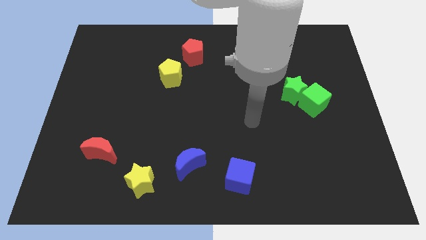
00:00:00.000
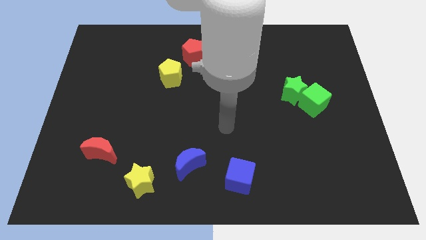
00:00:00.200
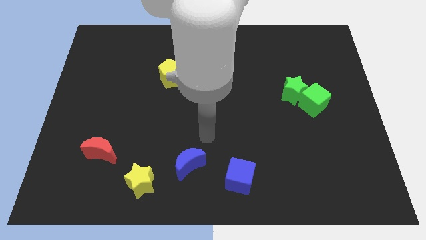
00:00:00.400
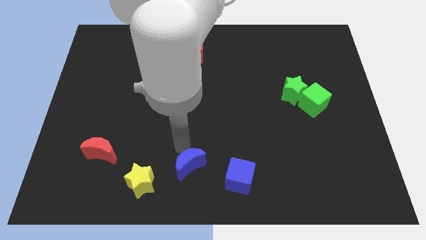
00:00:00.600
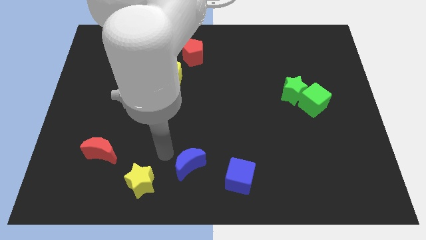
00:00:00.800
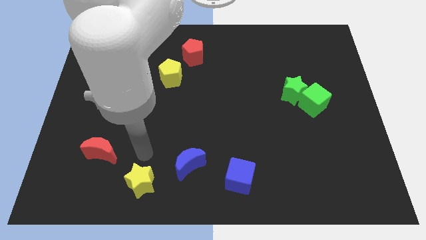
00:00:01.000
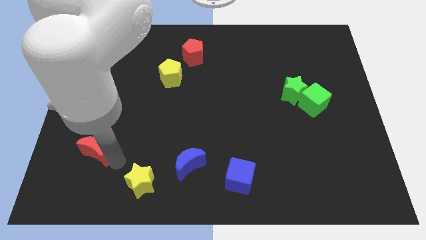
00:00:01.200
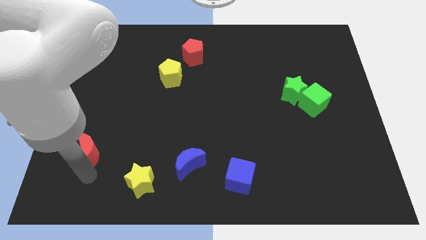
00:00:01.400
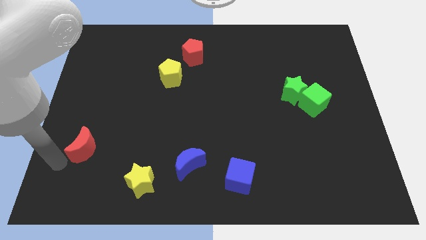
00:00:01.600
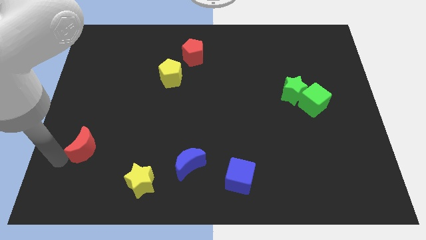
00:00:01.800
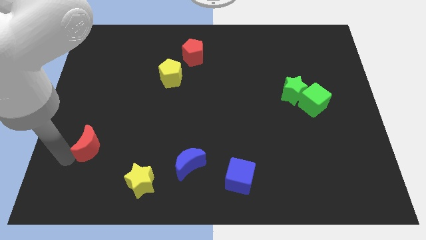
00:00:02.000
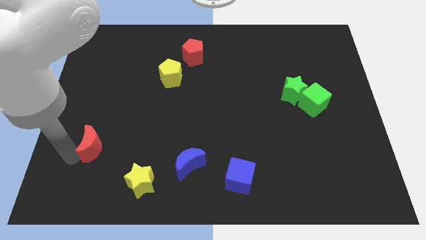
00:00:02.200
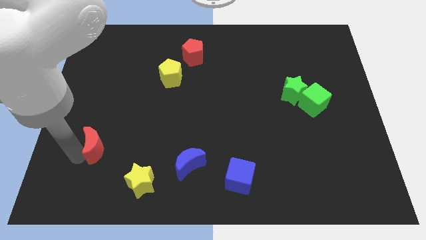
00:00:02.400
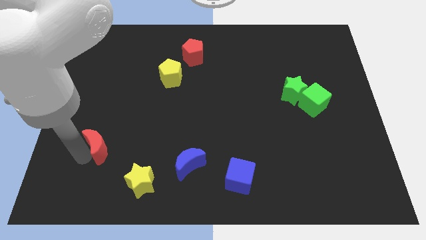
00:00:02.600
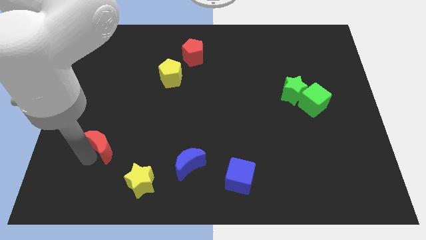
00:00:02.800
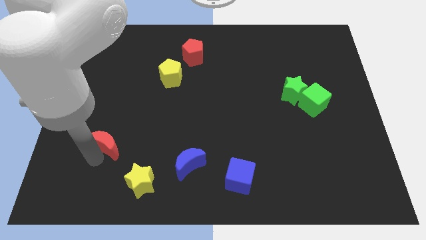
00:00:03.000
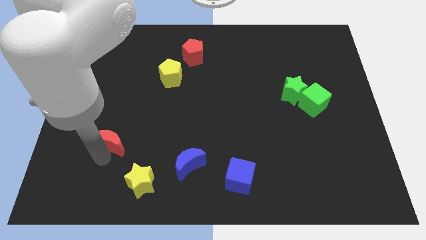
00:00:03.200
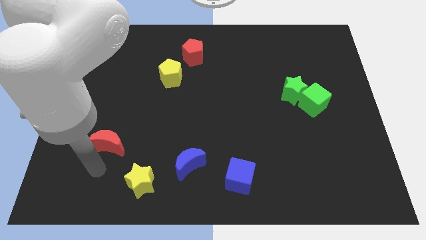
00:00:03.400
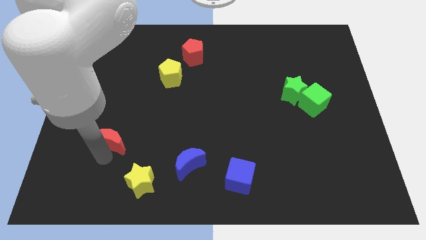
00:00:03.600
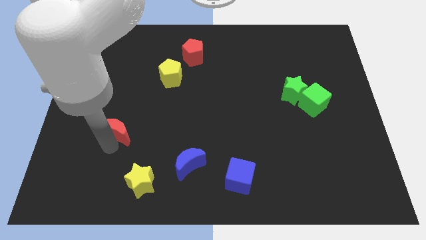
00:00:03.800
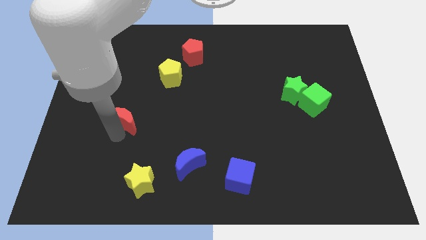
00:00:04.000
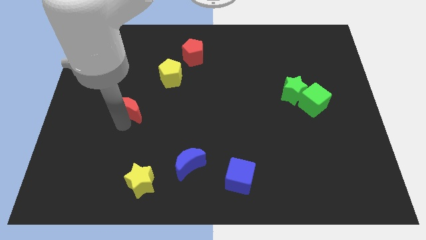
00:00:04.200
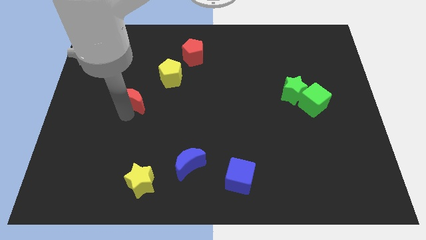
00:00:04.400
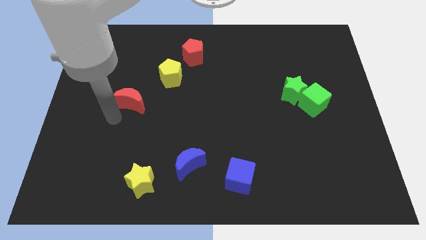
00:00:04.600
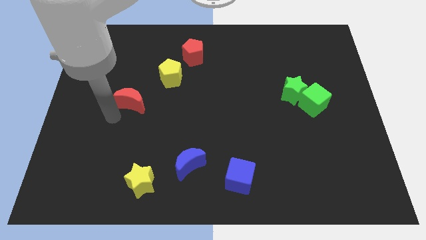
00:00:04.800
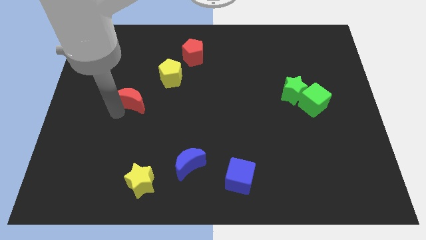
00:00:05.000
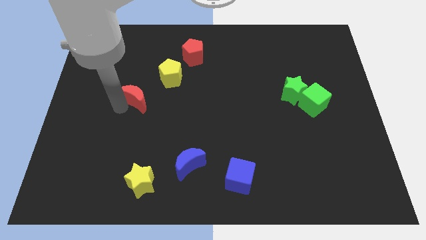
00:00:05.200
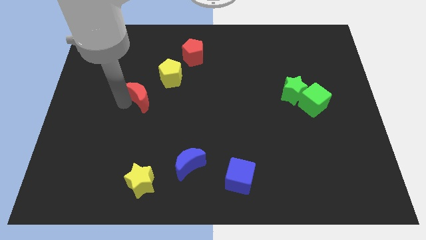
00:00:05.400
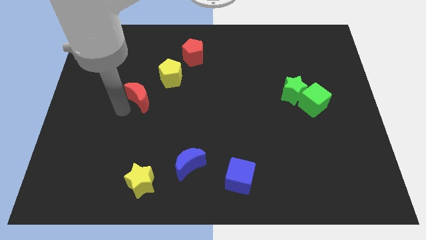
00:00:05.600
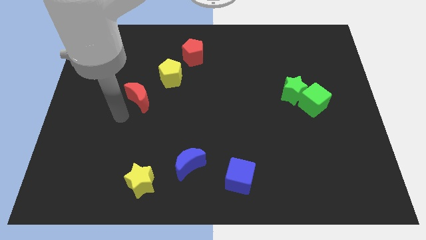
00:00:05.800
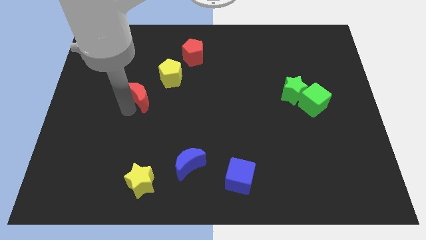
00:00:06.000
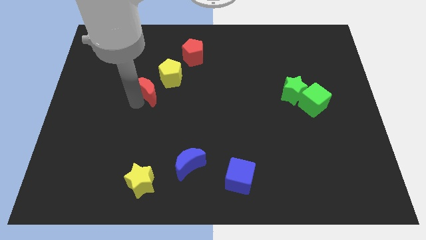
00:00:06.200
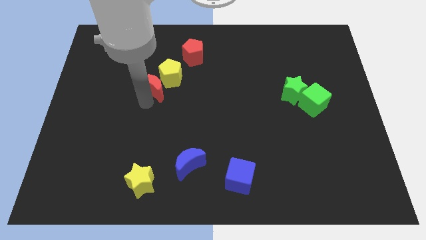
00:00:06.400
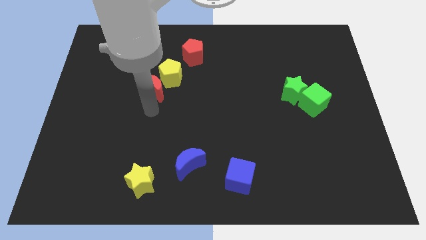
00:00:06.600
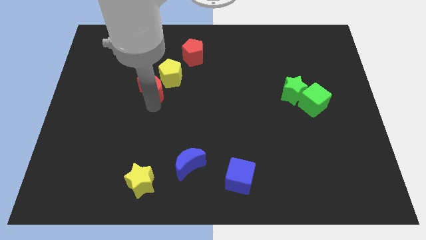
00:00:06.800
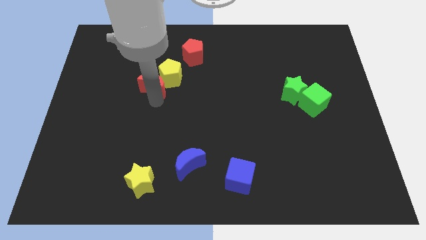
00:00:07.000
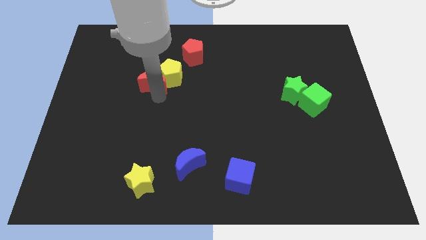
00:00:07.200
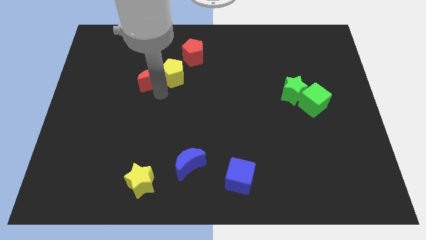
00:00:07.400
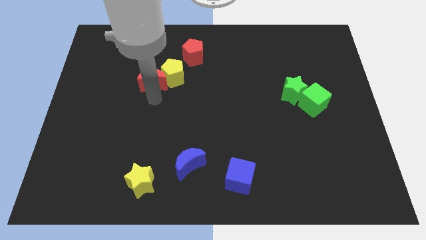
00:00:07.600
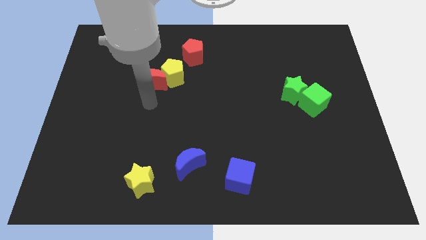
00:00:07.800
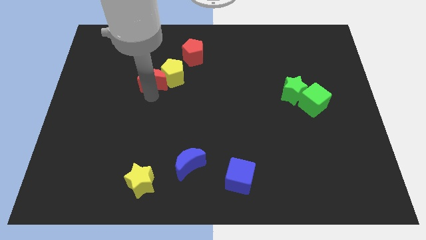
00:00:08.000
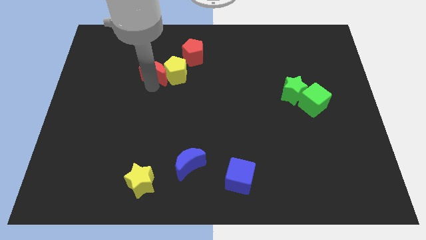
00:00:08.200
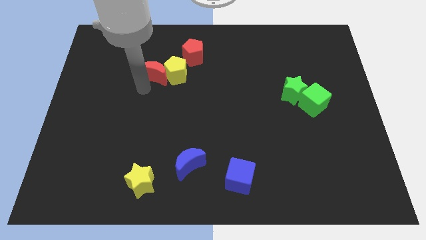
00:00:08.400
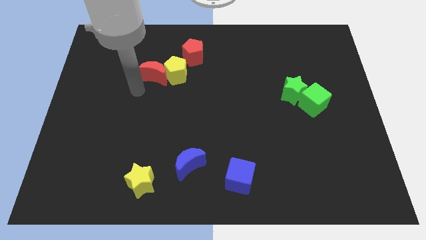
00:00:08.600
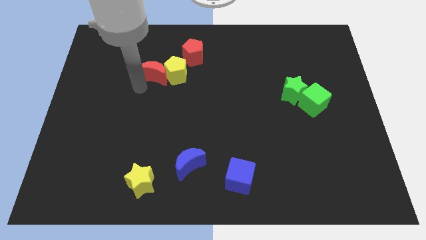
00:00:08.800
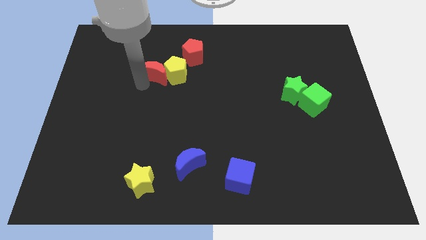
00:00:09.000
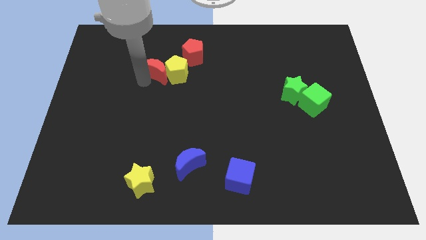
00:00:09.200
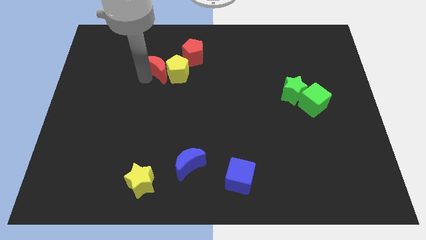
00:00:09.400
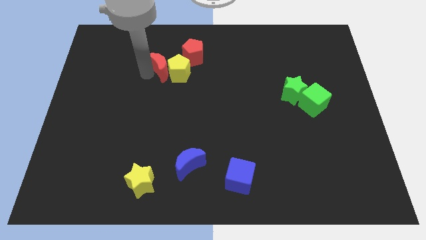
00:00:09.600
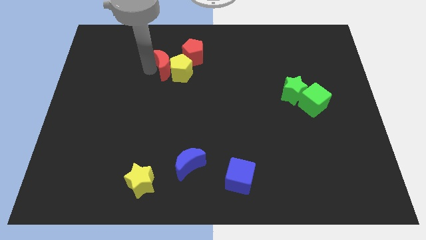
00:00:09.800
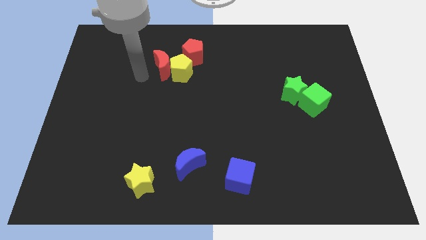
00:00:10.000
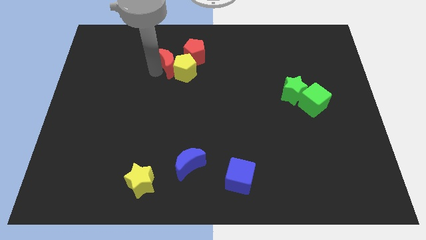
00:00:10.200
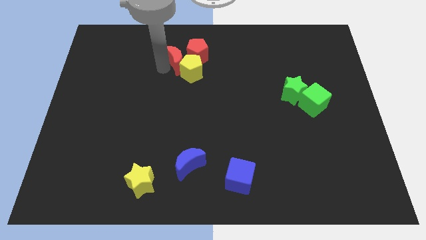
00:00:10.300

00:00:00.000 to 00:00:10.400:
move the red moon to the red pentagon

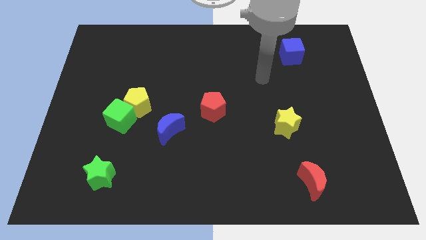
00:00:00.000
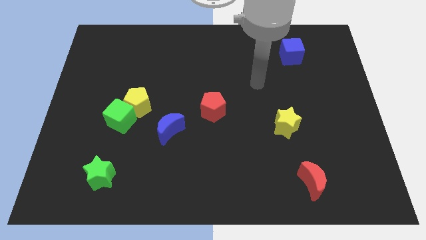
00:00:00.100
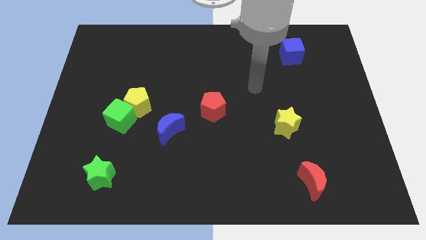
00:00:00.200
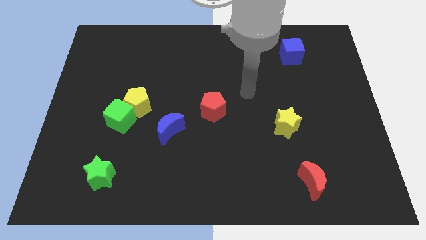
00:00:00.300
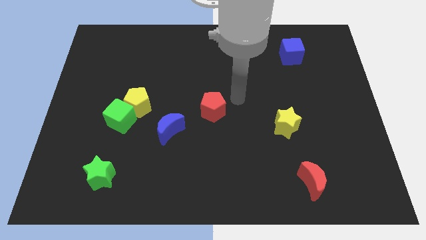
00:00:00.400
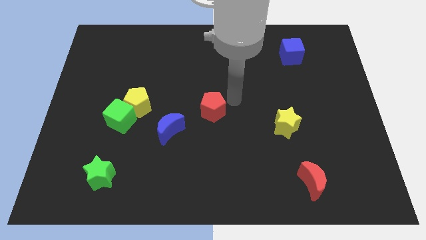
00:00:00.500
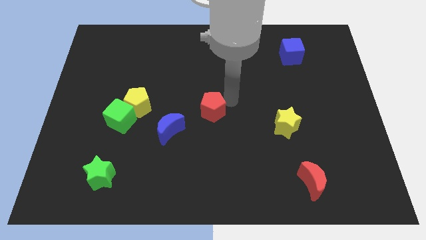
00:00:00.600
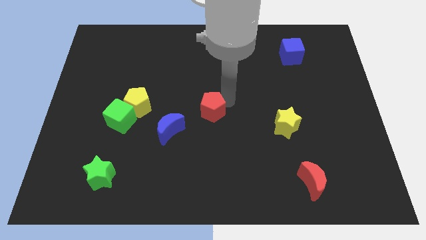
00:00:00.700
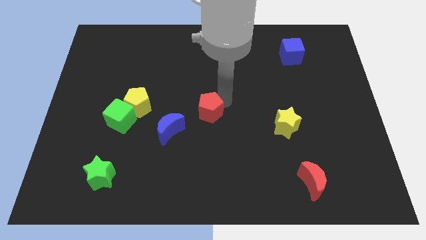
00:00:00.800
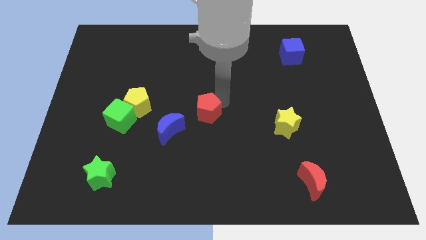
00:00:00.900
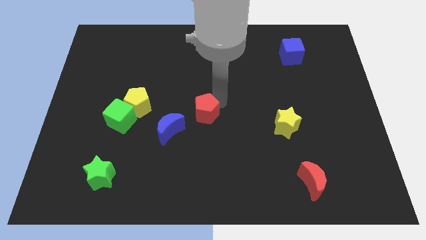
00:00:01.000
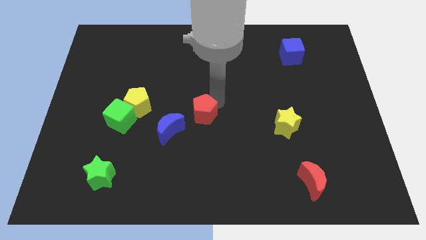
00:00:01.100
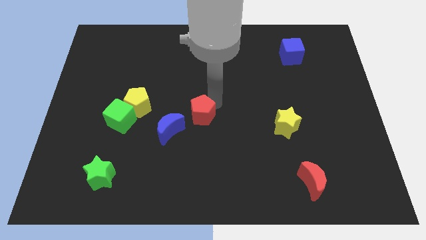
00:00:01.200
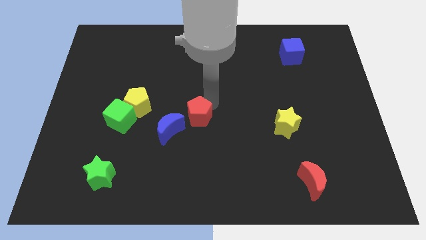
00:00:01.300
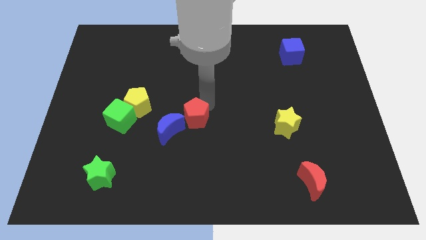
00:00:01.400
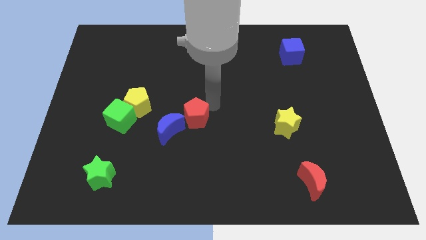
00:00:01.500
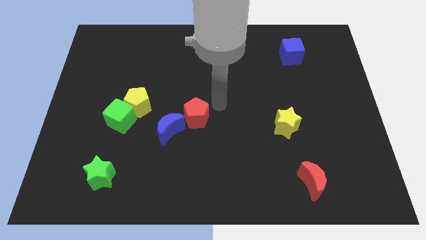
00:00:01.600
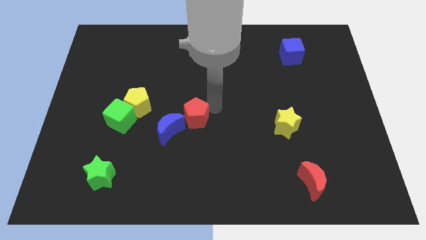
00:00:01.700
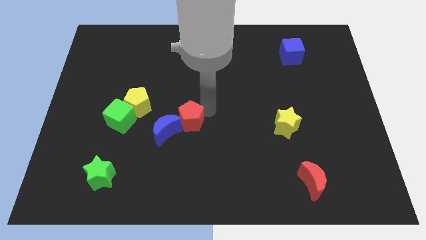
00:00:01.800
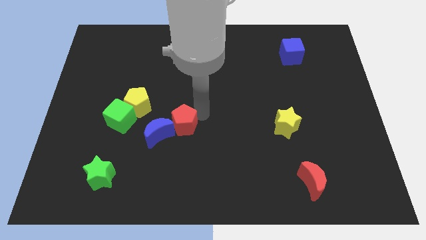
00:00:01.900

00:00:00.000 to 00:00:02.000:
push the red pentagon next to the blue moon
